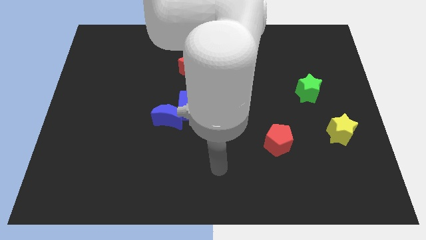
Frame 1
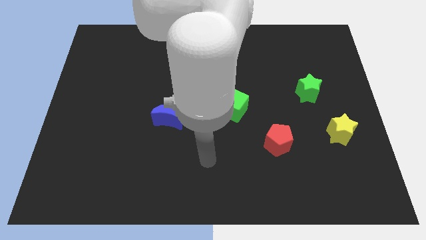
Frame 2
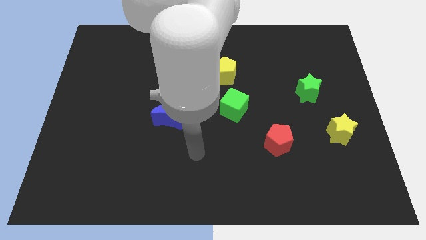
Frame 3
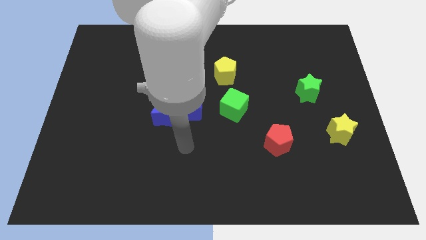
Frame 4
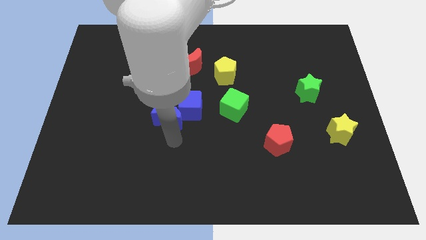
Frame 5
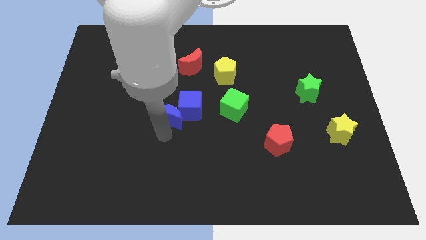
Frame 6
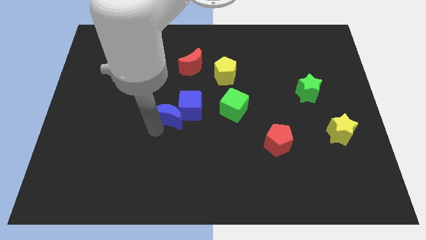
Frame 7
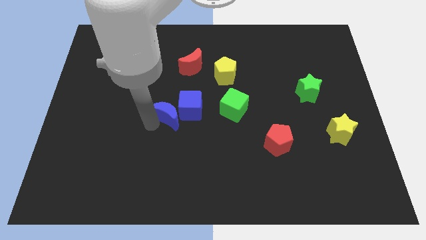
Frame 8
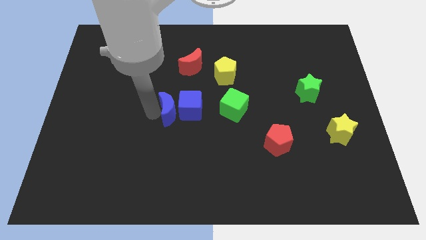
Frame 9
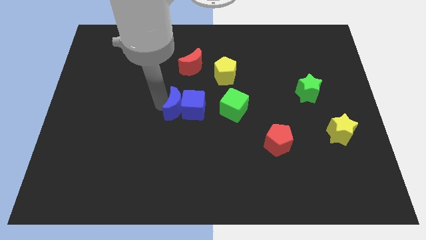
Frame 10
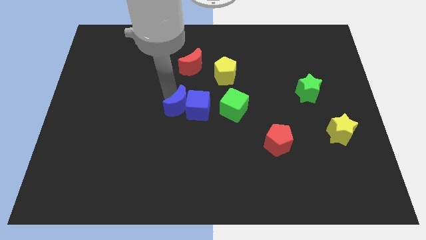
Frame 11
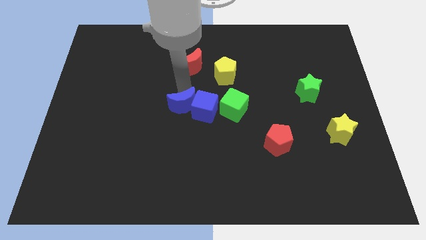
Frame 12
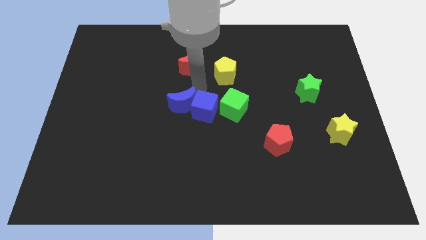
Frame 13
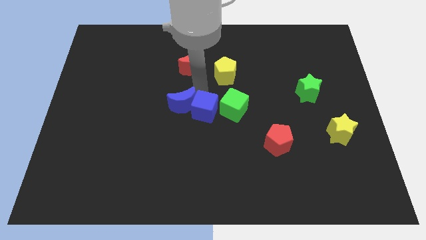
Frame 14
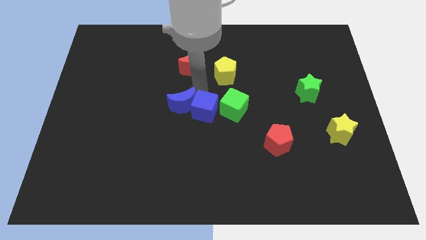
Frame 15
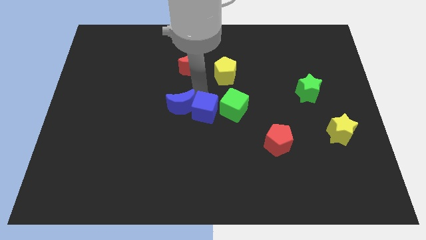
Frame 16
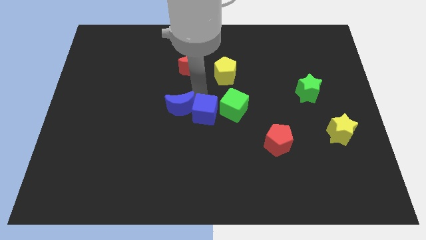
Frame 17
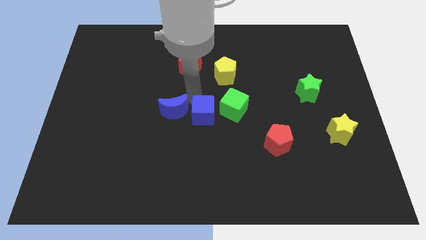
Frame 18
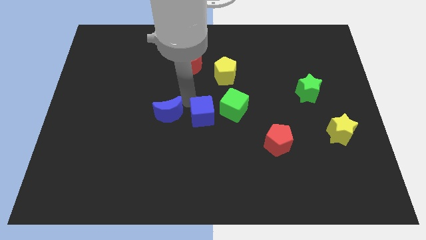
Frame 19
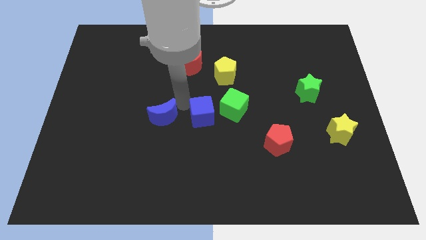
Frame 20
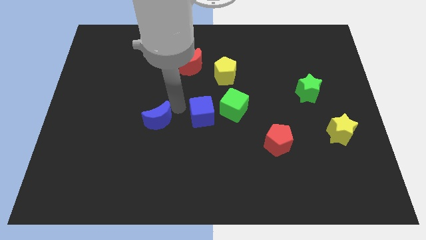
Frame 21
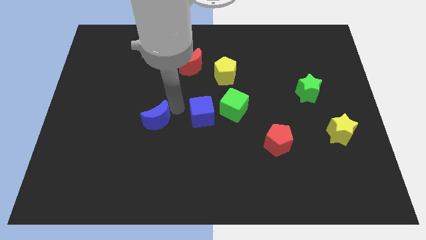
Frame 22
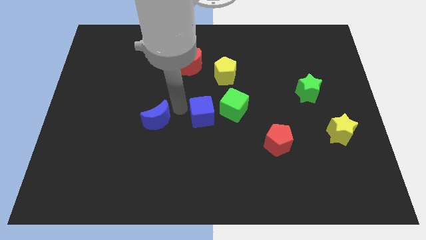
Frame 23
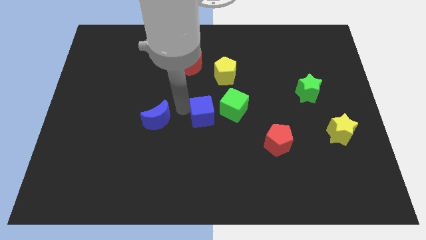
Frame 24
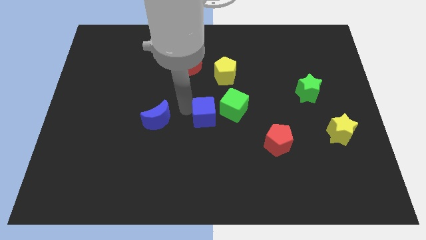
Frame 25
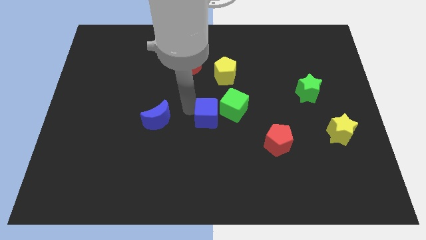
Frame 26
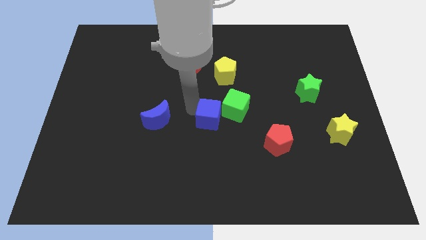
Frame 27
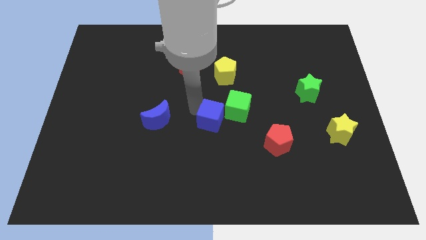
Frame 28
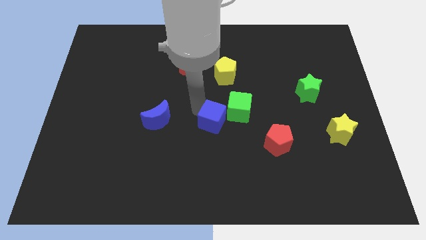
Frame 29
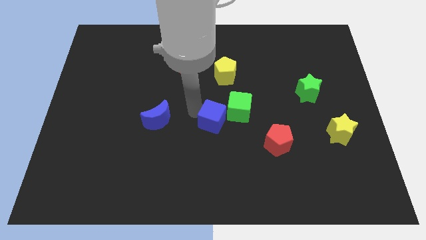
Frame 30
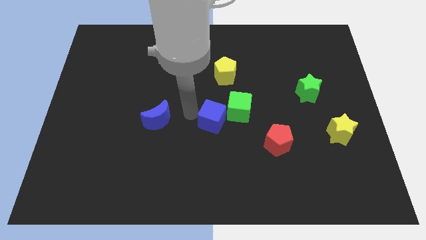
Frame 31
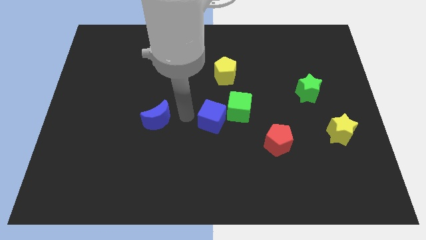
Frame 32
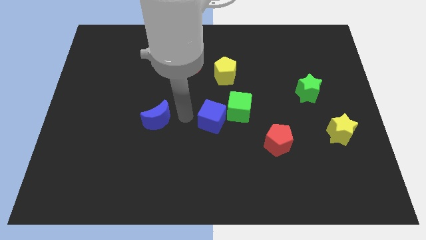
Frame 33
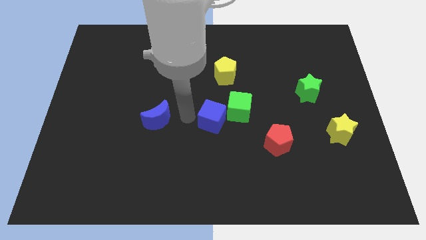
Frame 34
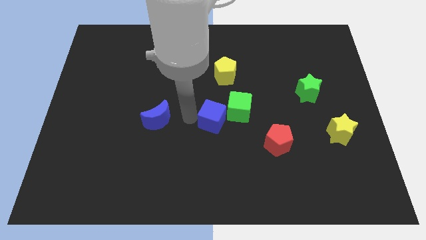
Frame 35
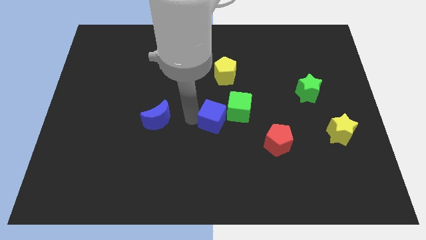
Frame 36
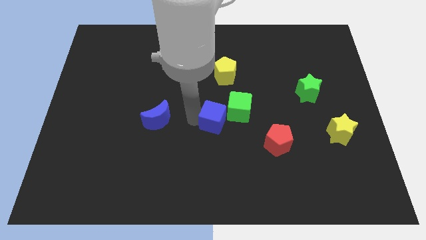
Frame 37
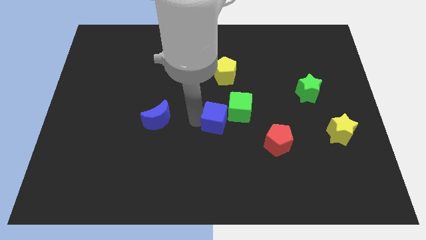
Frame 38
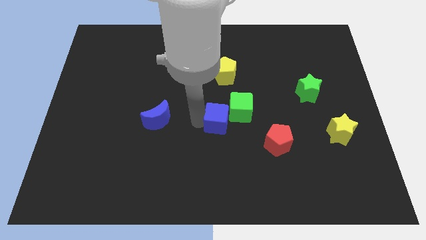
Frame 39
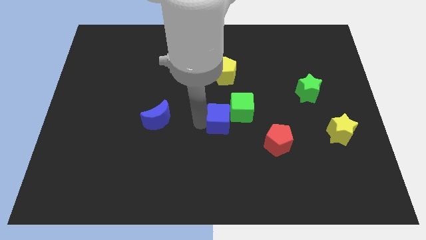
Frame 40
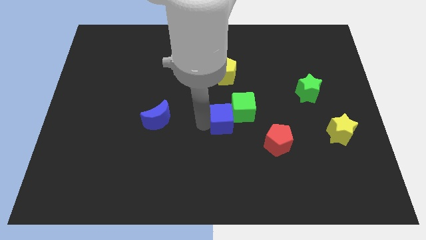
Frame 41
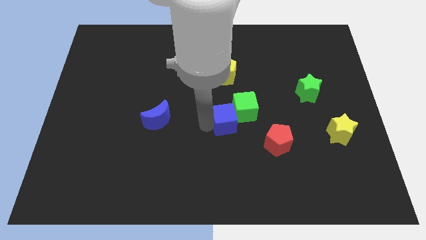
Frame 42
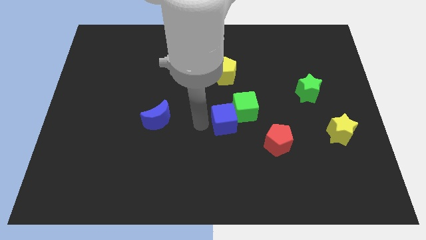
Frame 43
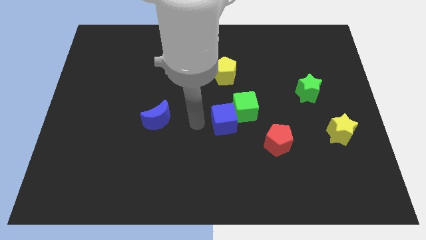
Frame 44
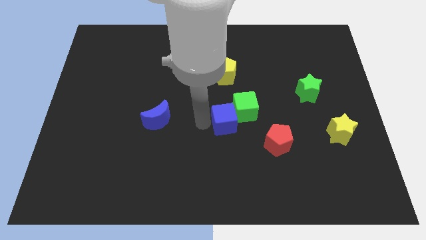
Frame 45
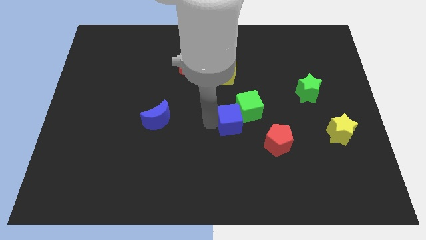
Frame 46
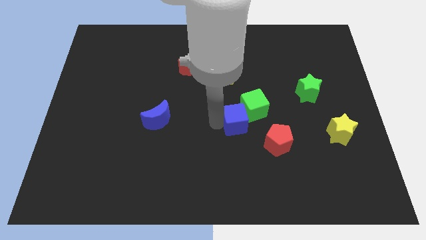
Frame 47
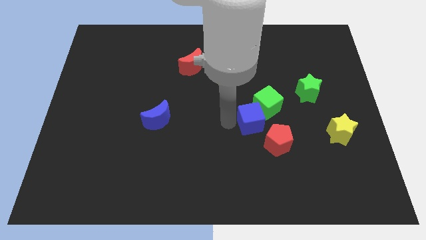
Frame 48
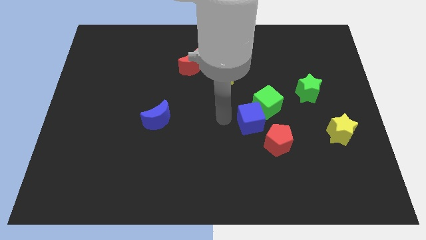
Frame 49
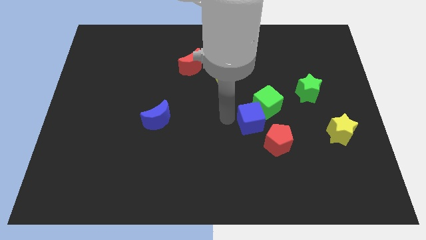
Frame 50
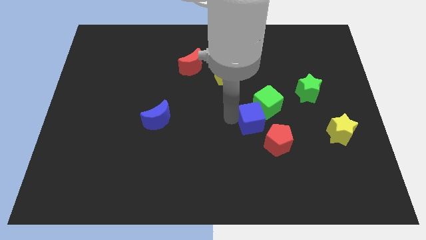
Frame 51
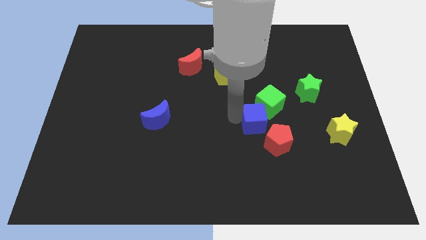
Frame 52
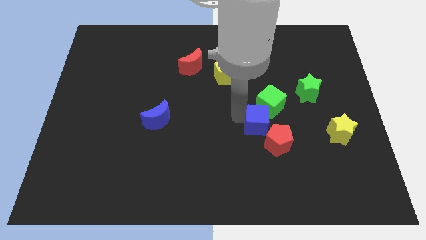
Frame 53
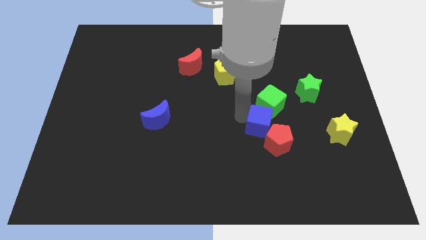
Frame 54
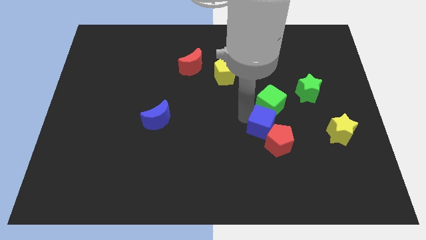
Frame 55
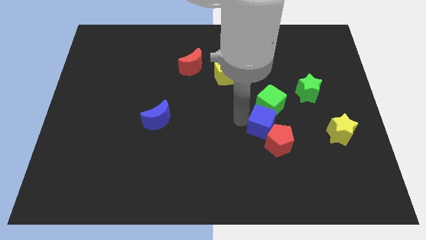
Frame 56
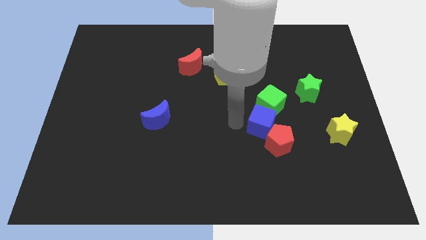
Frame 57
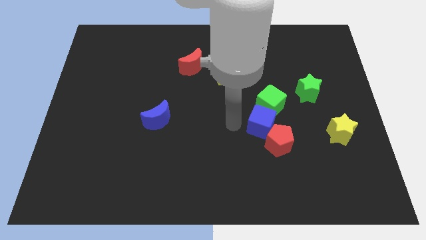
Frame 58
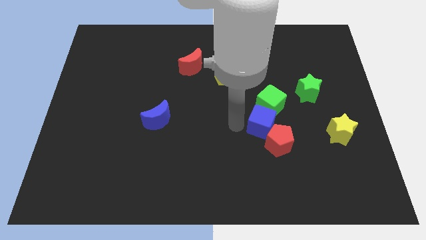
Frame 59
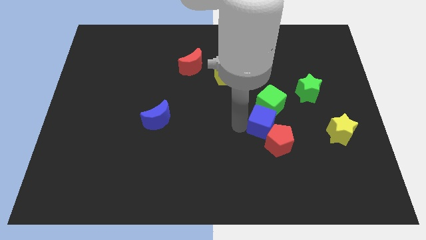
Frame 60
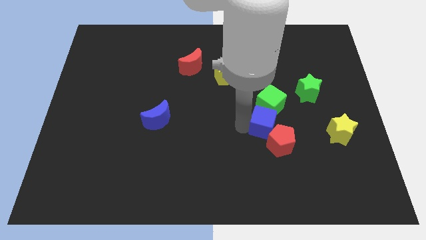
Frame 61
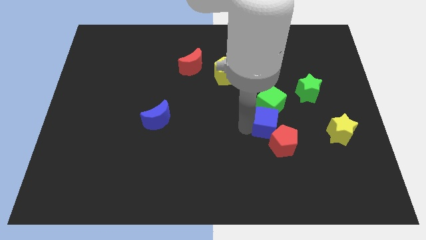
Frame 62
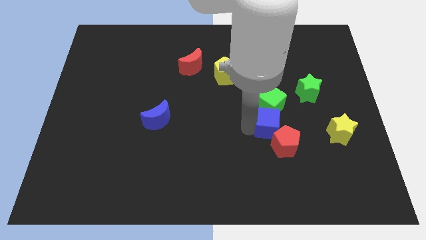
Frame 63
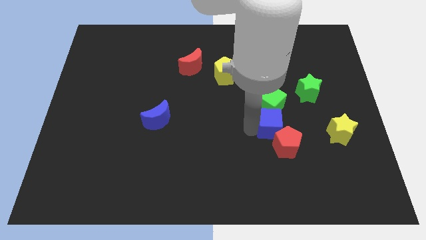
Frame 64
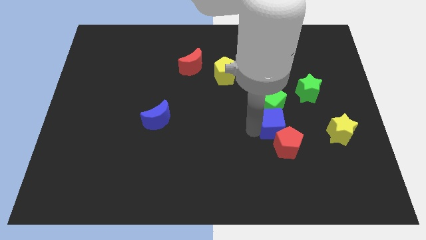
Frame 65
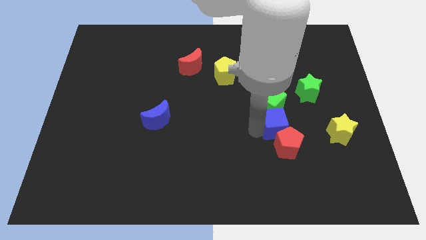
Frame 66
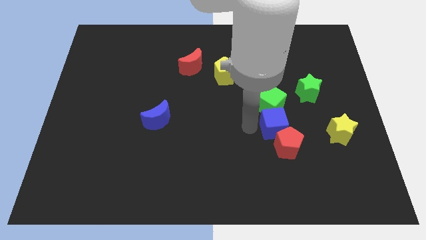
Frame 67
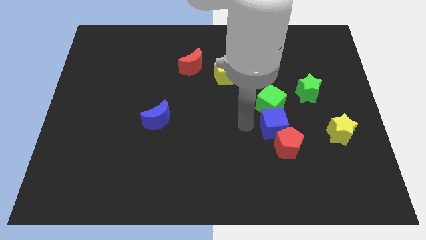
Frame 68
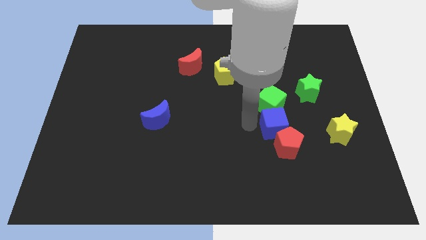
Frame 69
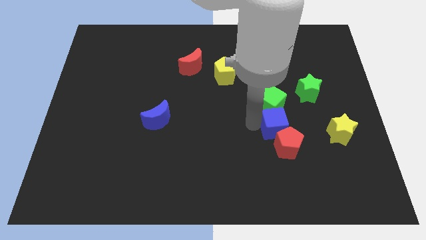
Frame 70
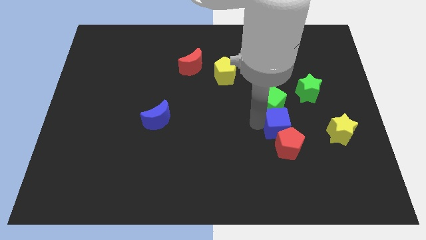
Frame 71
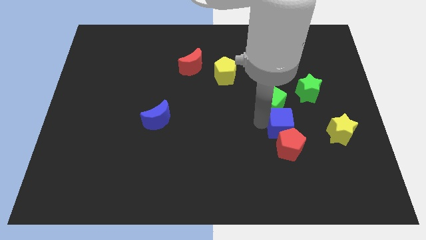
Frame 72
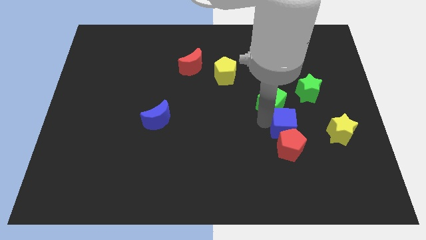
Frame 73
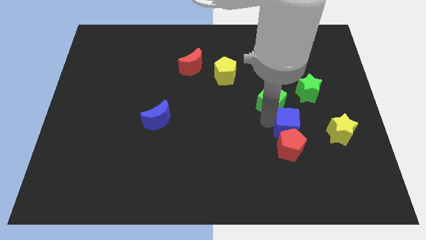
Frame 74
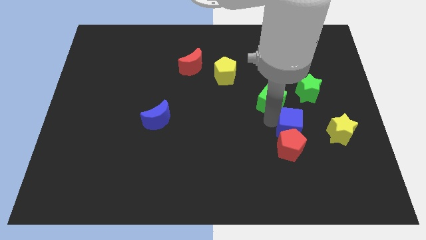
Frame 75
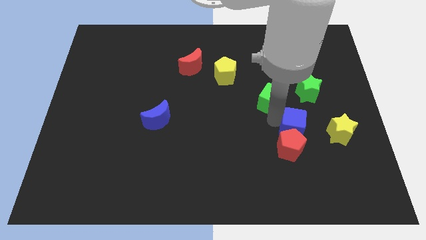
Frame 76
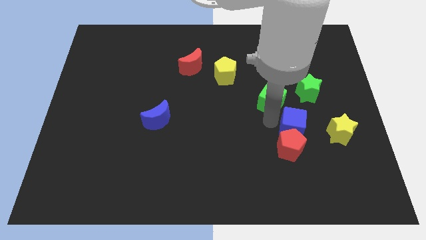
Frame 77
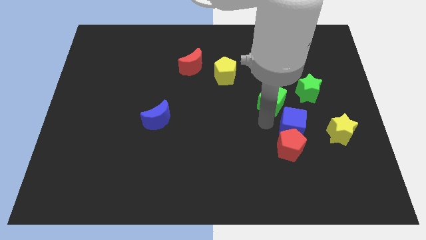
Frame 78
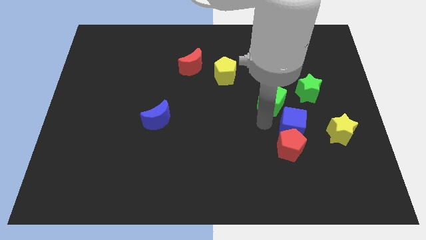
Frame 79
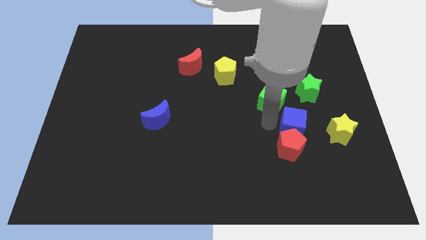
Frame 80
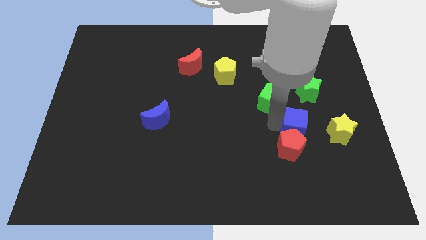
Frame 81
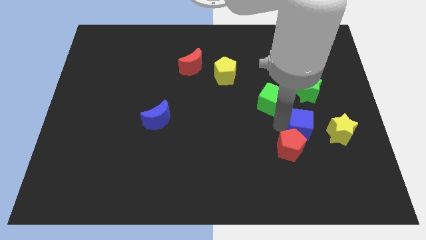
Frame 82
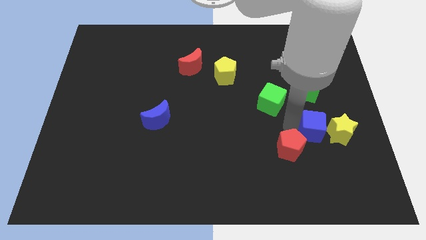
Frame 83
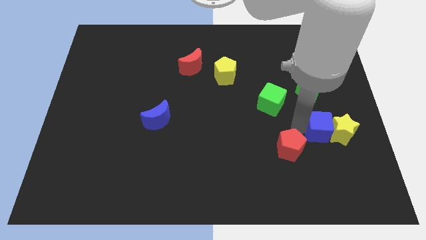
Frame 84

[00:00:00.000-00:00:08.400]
push the blue cube next to the yellow star
